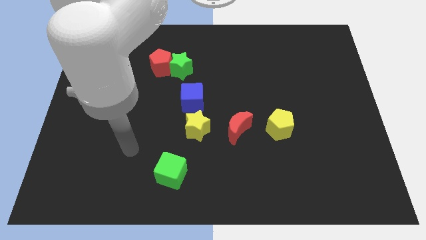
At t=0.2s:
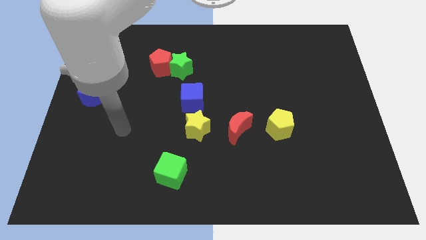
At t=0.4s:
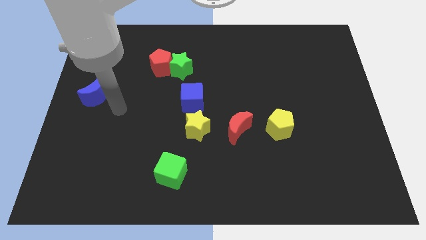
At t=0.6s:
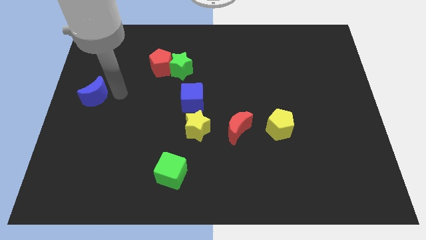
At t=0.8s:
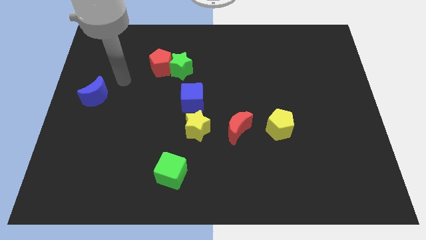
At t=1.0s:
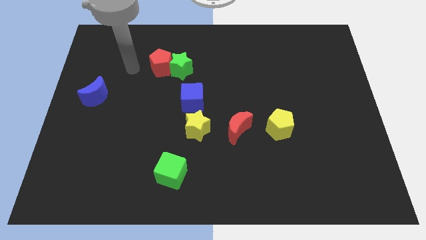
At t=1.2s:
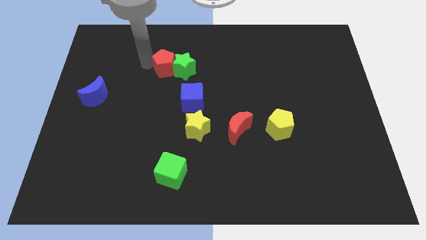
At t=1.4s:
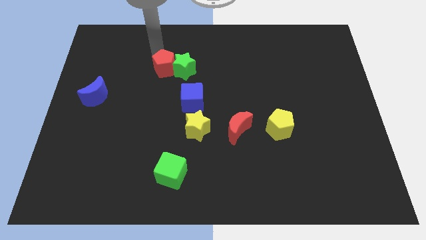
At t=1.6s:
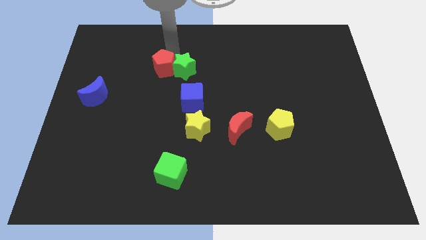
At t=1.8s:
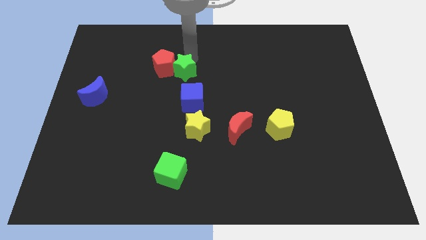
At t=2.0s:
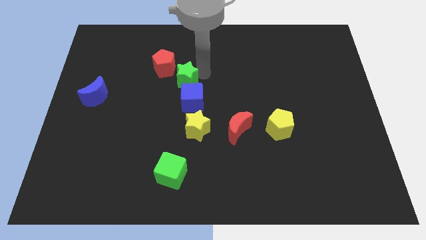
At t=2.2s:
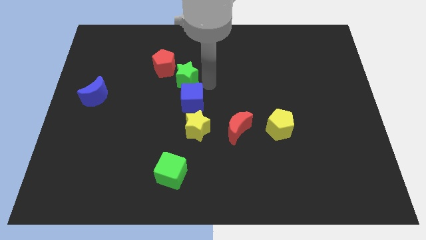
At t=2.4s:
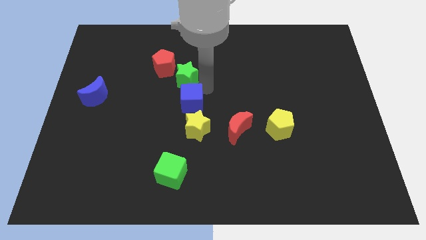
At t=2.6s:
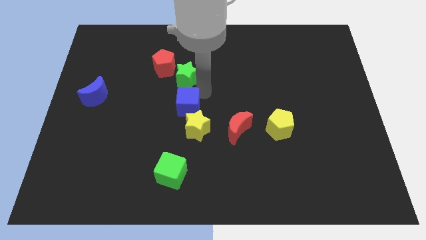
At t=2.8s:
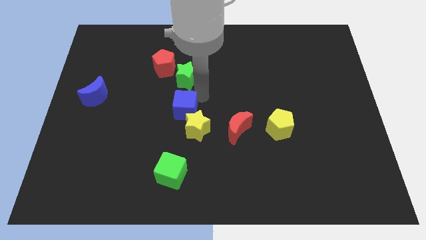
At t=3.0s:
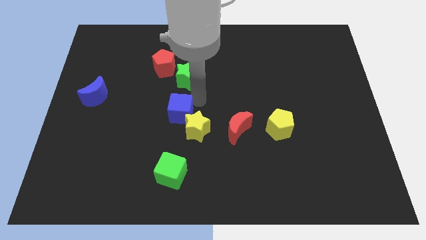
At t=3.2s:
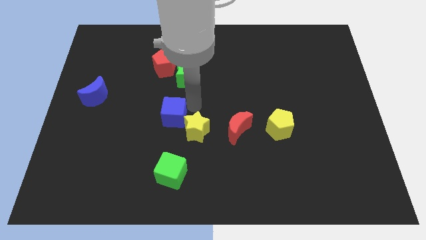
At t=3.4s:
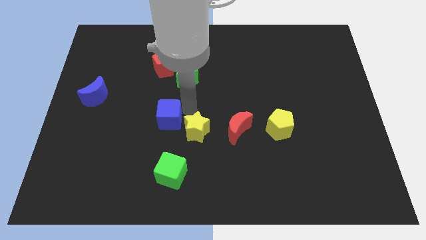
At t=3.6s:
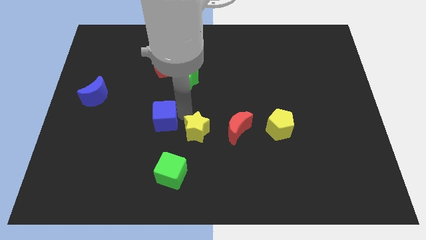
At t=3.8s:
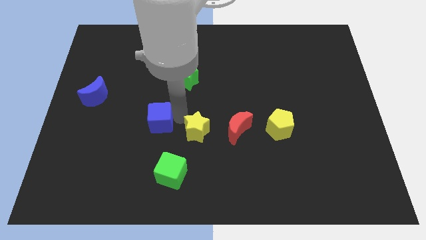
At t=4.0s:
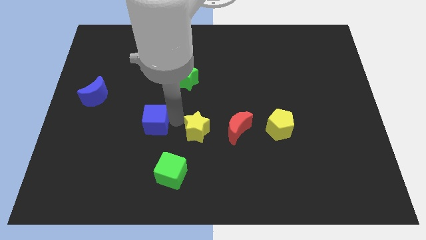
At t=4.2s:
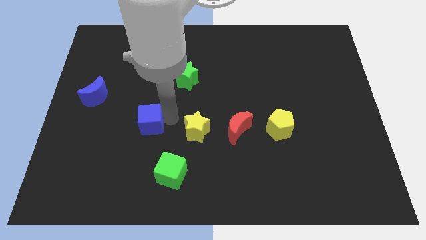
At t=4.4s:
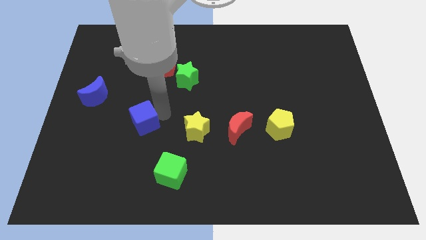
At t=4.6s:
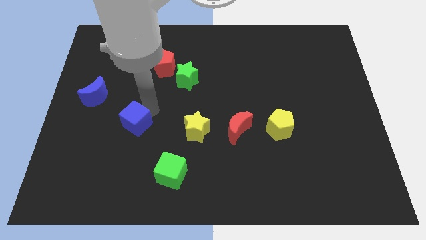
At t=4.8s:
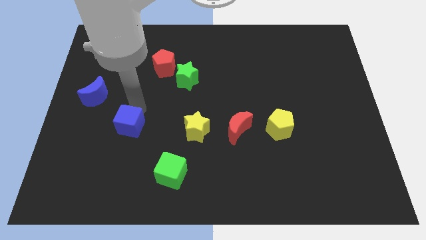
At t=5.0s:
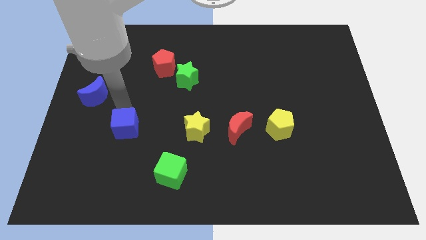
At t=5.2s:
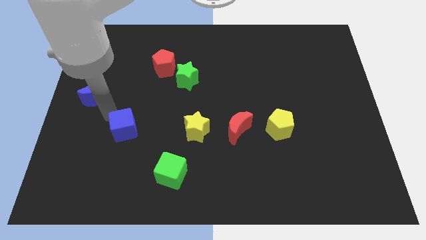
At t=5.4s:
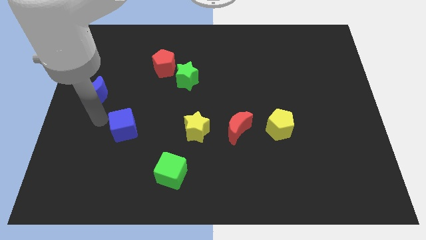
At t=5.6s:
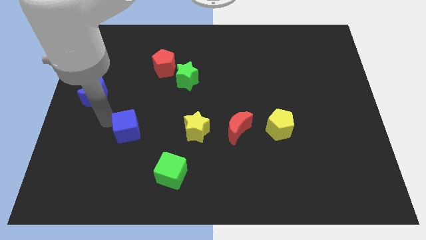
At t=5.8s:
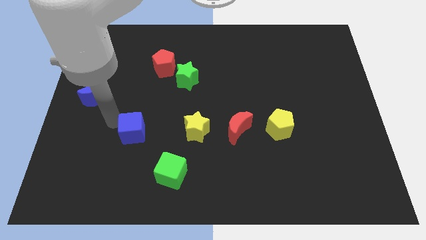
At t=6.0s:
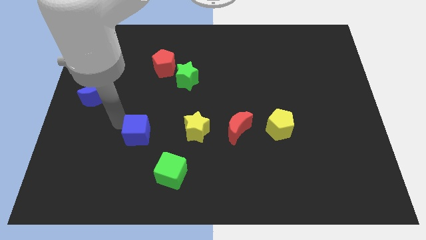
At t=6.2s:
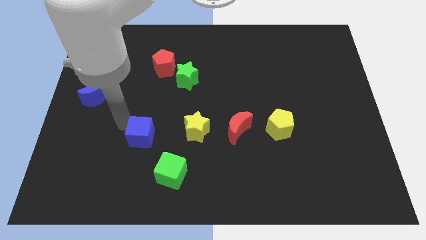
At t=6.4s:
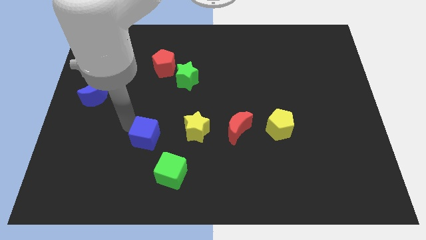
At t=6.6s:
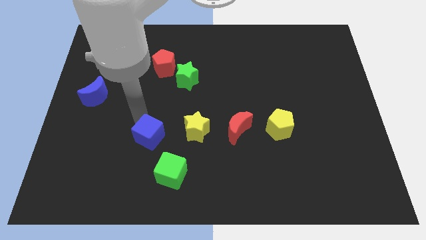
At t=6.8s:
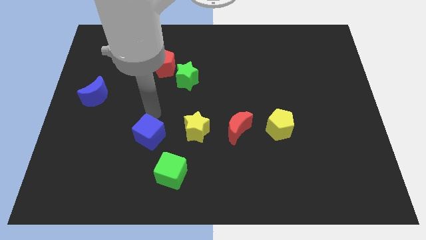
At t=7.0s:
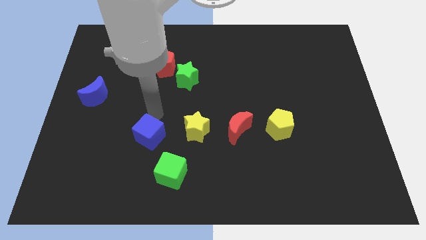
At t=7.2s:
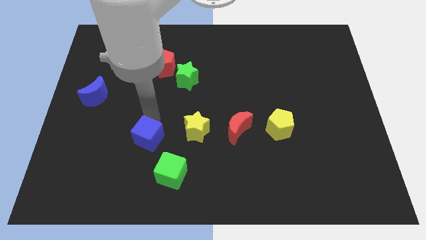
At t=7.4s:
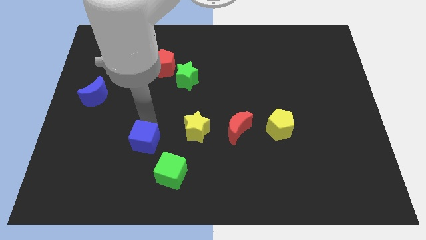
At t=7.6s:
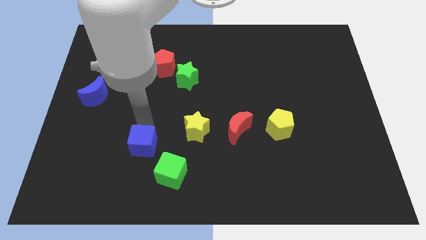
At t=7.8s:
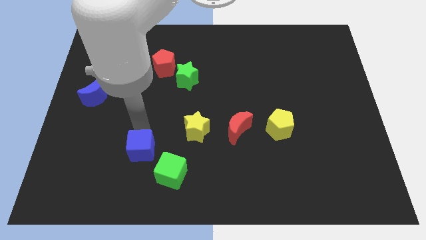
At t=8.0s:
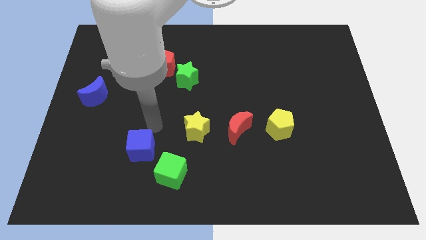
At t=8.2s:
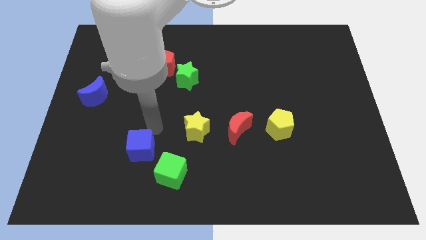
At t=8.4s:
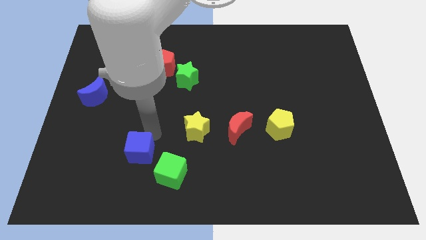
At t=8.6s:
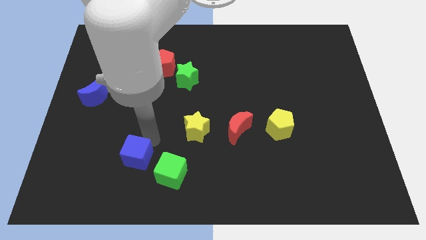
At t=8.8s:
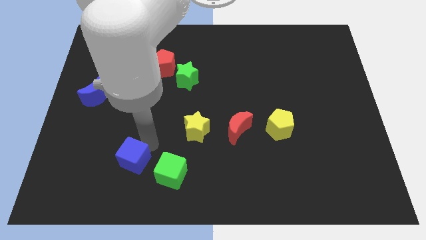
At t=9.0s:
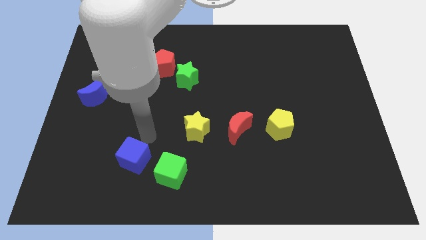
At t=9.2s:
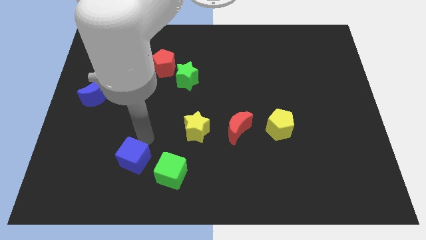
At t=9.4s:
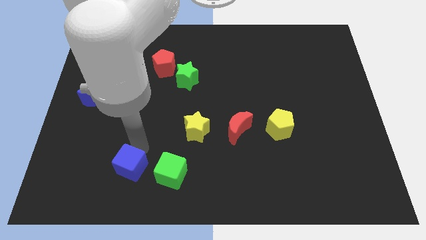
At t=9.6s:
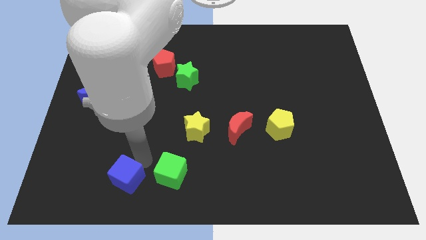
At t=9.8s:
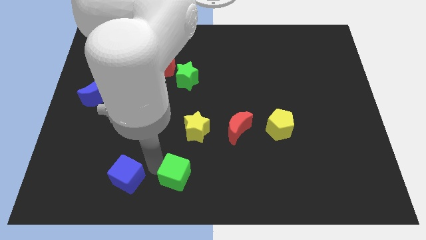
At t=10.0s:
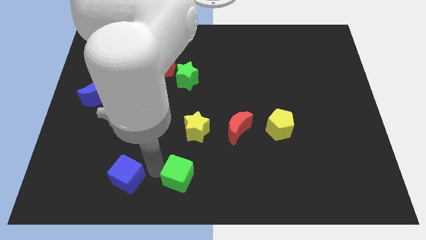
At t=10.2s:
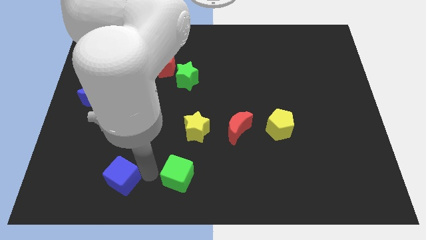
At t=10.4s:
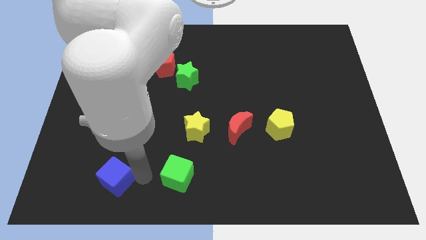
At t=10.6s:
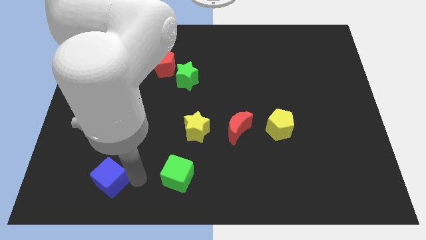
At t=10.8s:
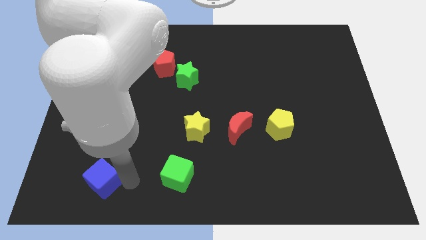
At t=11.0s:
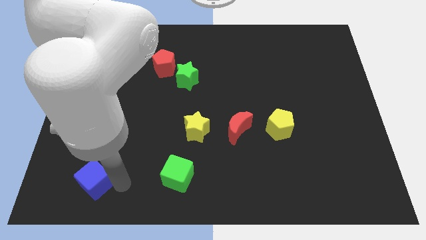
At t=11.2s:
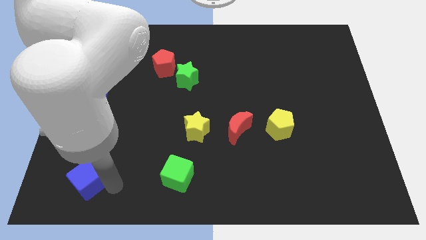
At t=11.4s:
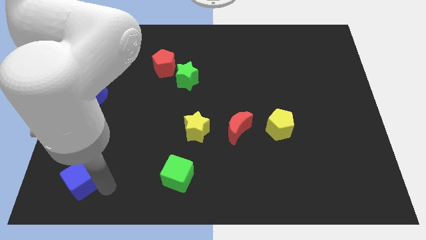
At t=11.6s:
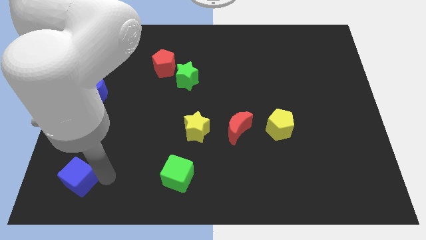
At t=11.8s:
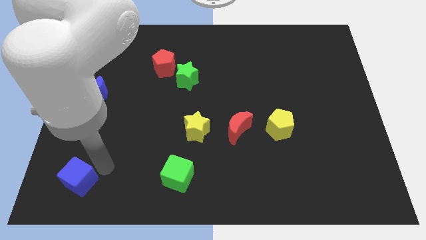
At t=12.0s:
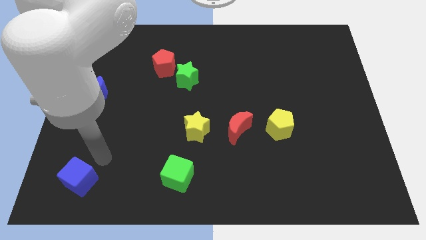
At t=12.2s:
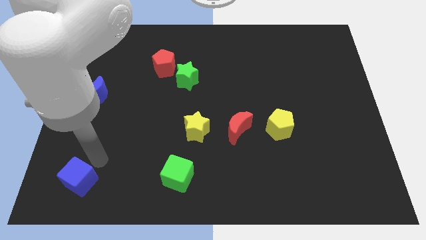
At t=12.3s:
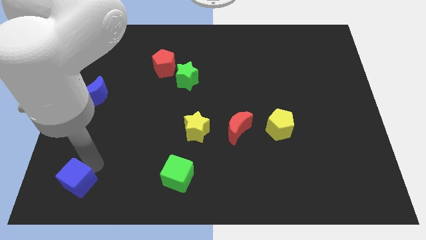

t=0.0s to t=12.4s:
move the blue cube to the lower left corner

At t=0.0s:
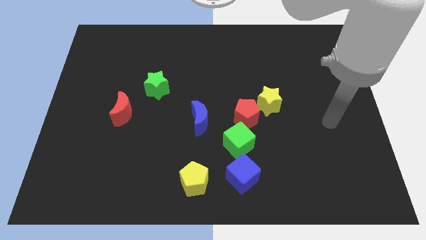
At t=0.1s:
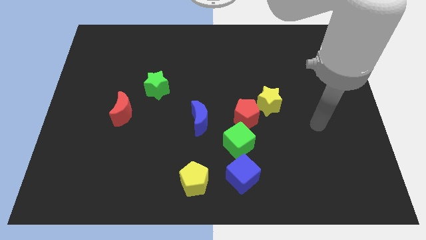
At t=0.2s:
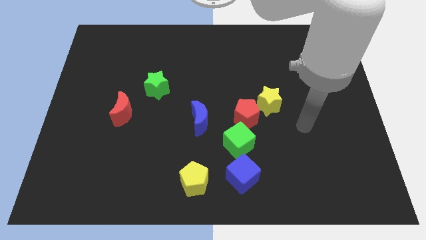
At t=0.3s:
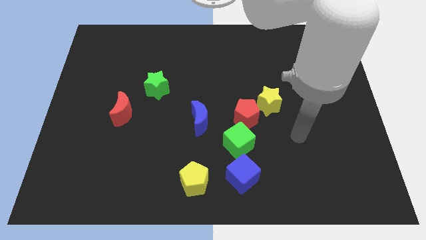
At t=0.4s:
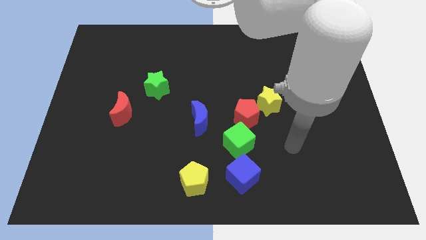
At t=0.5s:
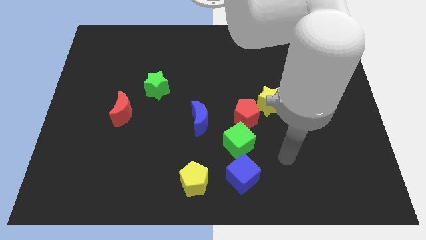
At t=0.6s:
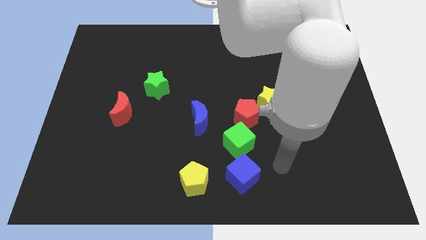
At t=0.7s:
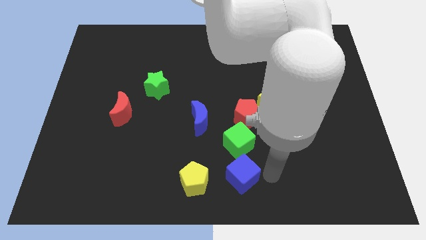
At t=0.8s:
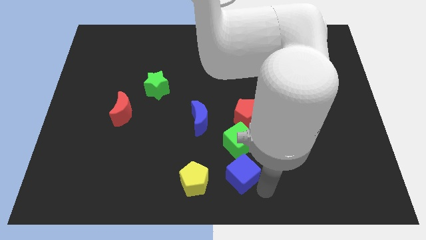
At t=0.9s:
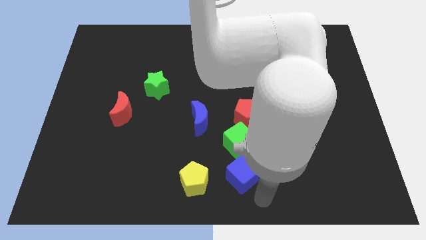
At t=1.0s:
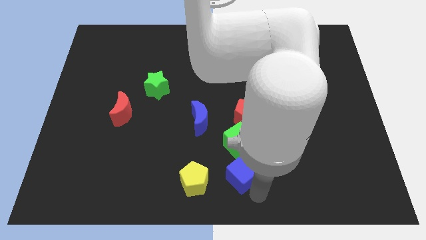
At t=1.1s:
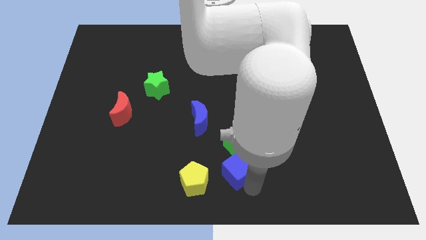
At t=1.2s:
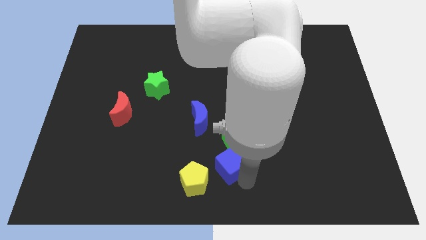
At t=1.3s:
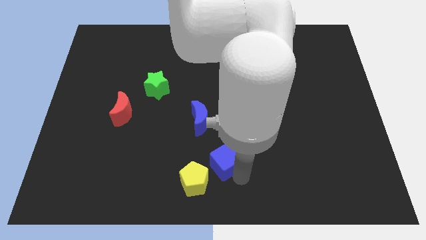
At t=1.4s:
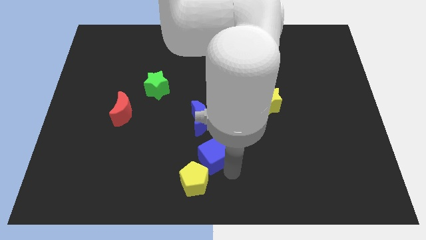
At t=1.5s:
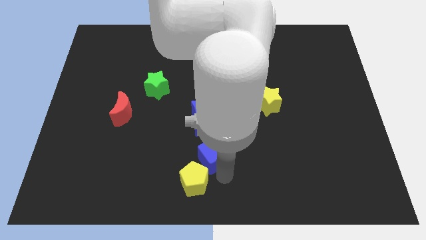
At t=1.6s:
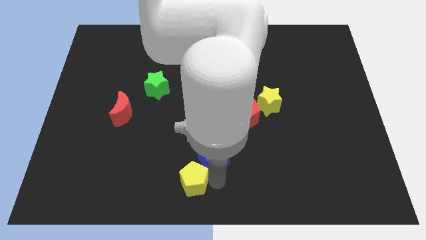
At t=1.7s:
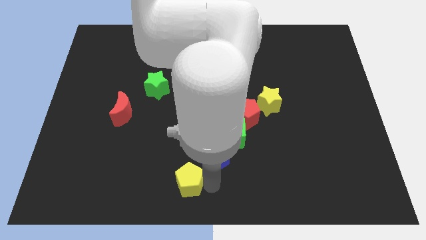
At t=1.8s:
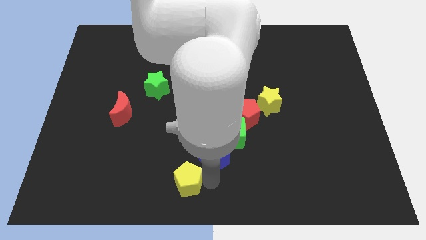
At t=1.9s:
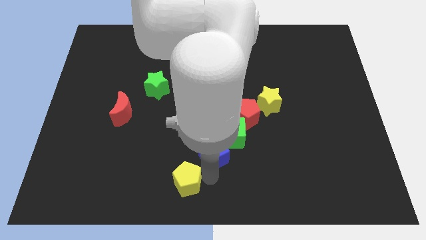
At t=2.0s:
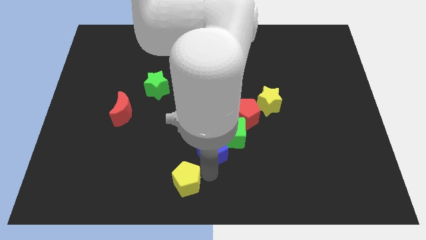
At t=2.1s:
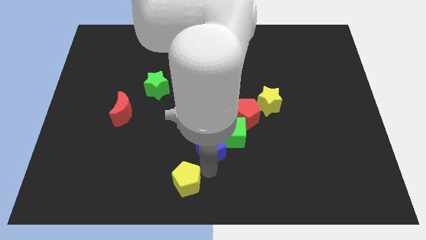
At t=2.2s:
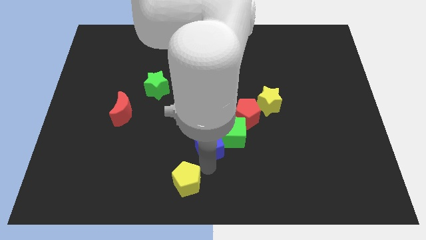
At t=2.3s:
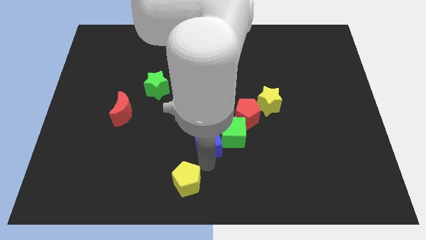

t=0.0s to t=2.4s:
slide the blue cube to the center of the board
